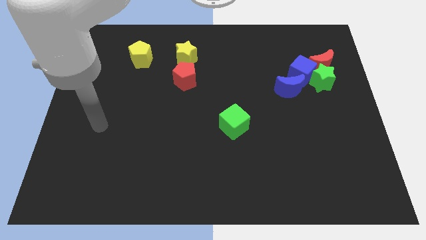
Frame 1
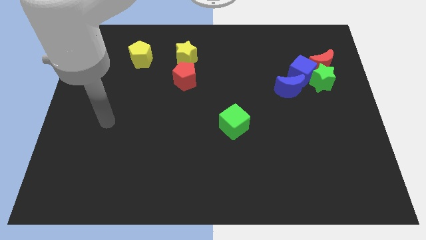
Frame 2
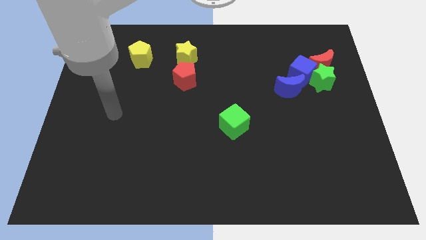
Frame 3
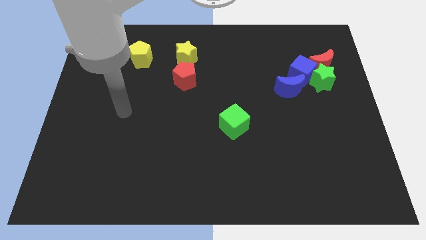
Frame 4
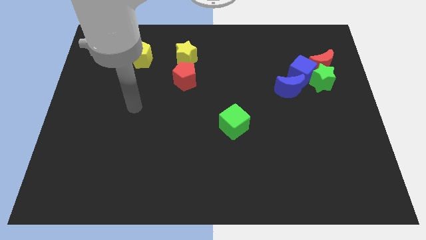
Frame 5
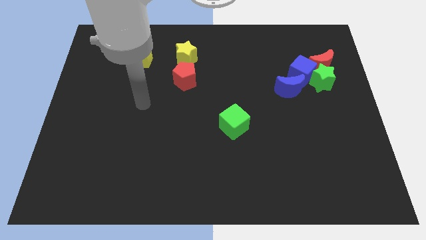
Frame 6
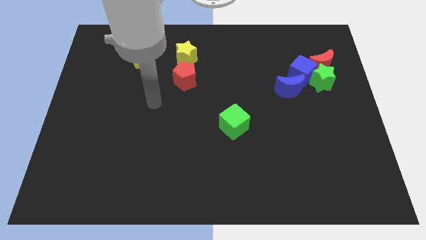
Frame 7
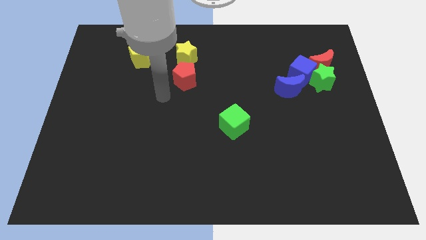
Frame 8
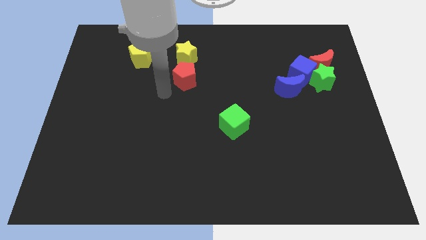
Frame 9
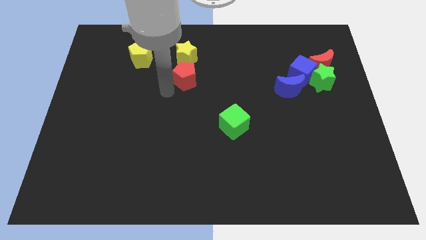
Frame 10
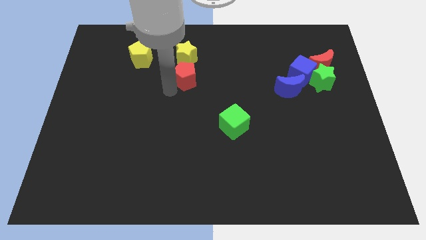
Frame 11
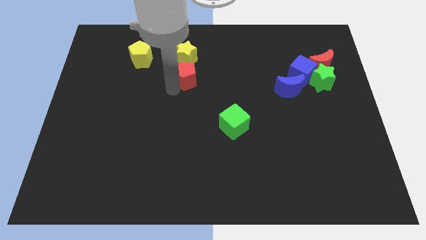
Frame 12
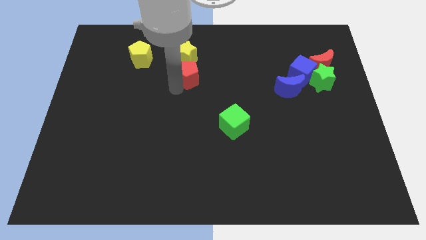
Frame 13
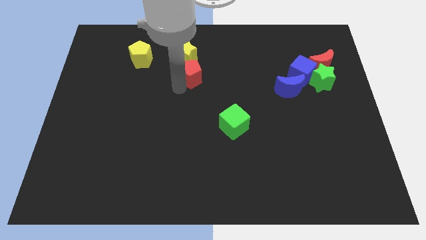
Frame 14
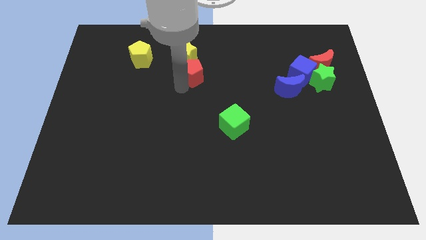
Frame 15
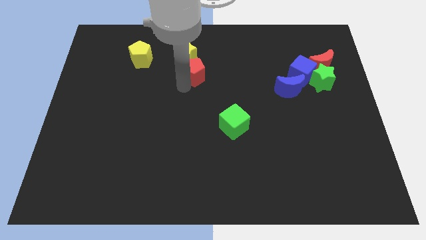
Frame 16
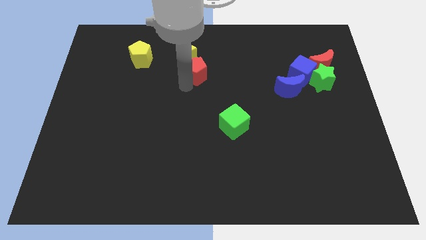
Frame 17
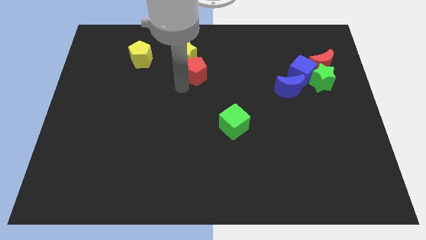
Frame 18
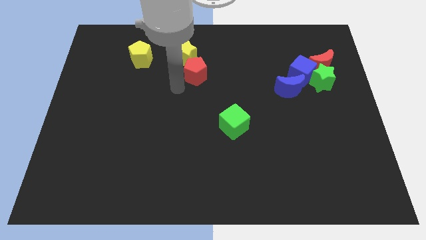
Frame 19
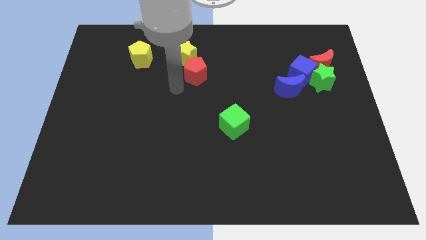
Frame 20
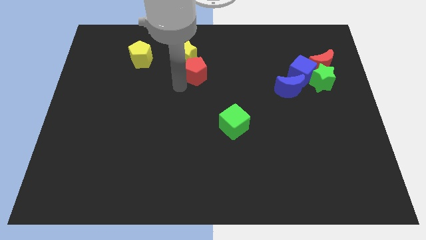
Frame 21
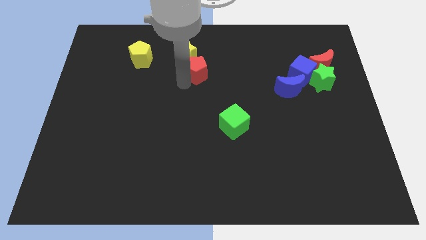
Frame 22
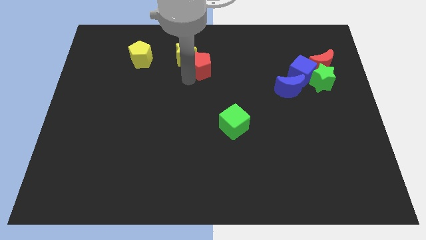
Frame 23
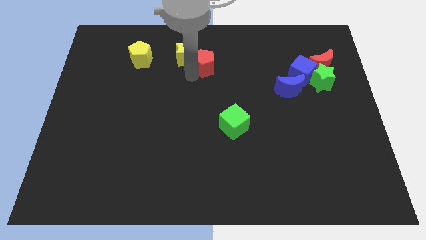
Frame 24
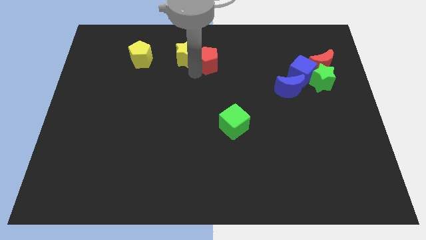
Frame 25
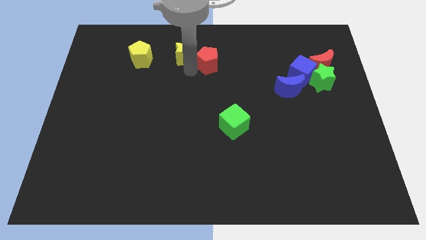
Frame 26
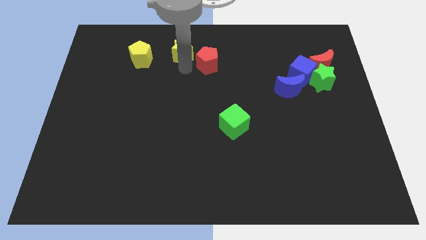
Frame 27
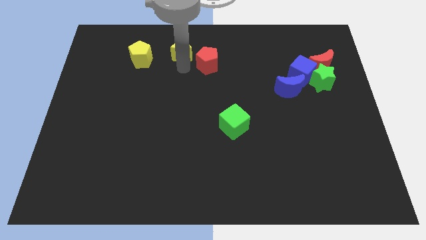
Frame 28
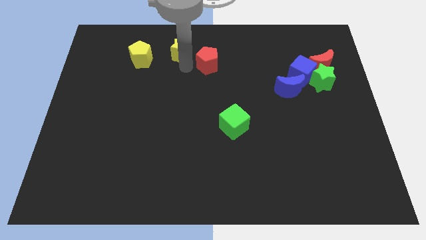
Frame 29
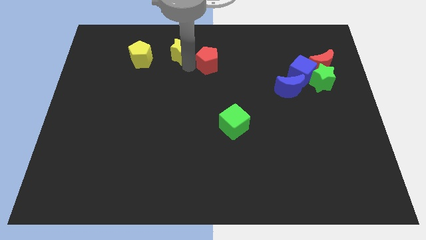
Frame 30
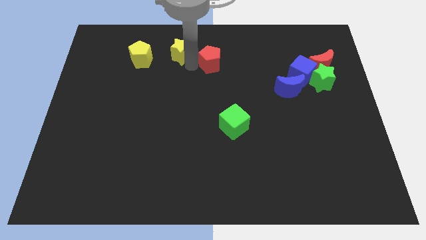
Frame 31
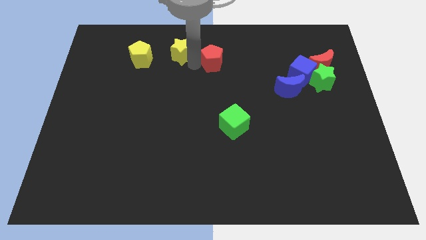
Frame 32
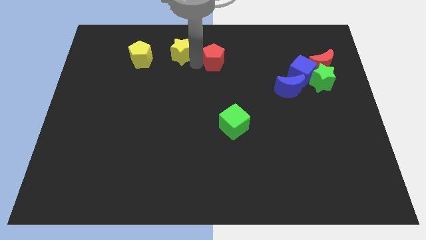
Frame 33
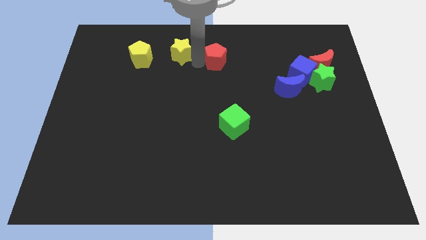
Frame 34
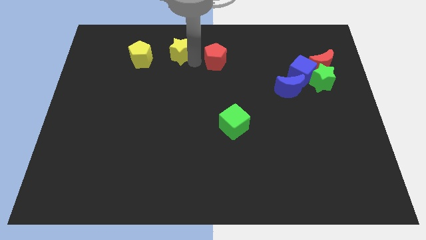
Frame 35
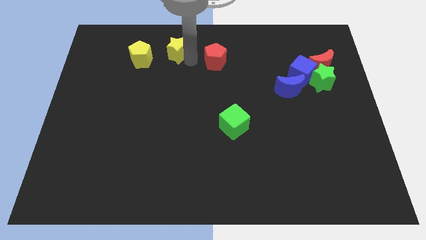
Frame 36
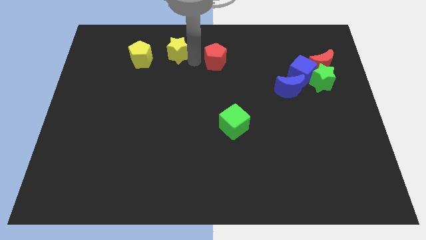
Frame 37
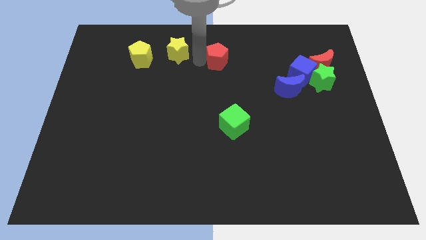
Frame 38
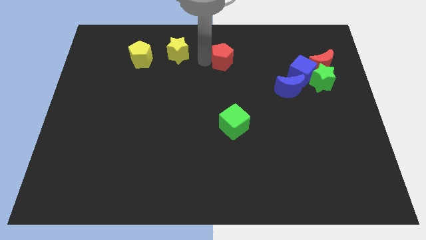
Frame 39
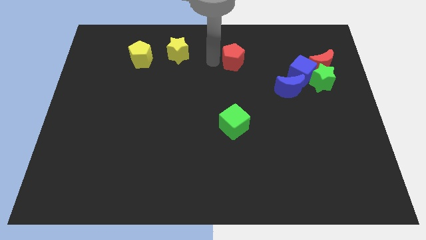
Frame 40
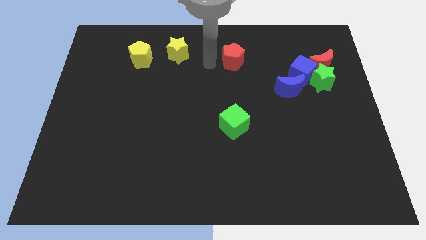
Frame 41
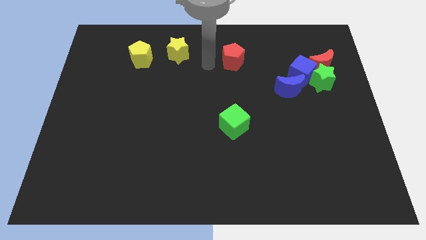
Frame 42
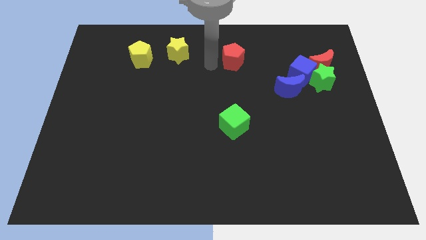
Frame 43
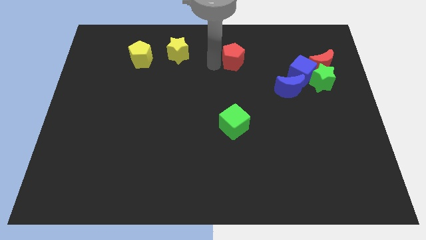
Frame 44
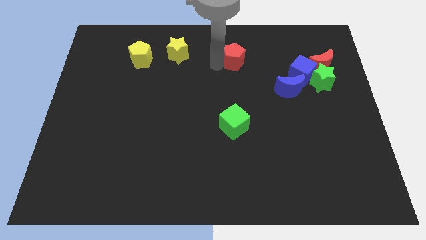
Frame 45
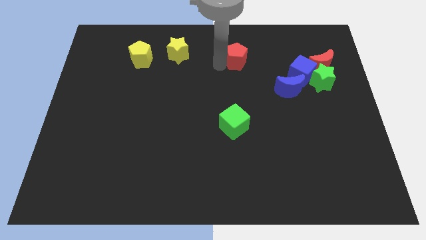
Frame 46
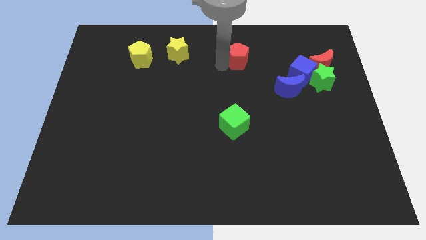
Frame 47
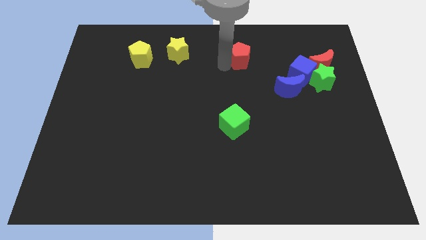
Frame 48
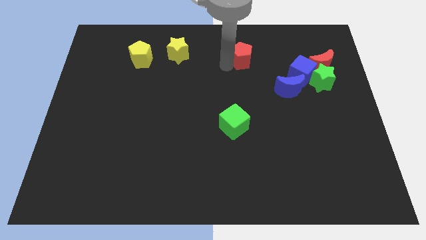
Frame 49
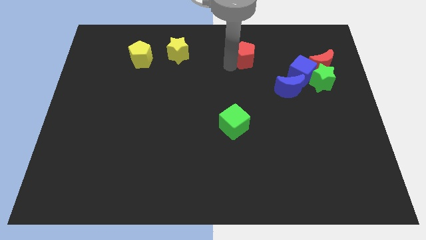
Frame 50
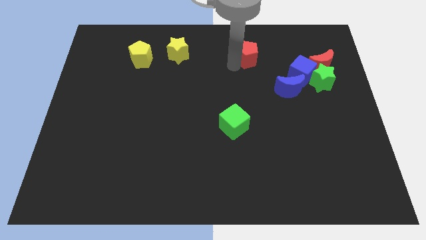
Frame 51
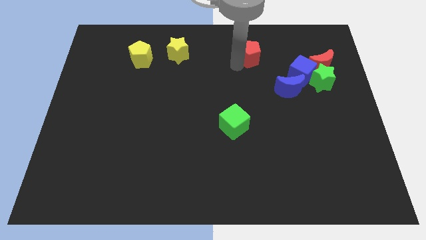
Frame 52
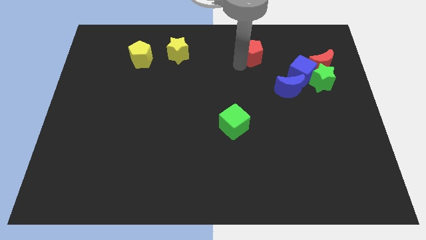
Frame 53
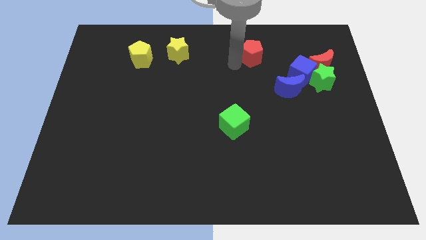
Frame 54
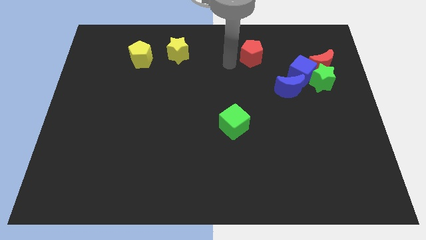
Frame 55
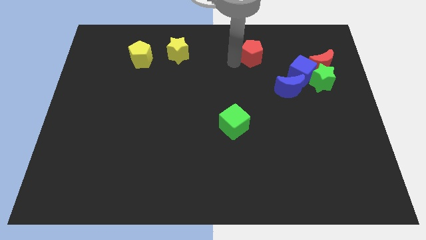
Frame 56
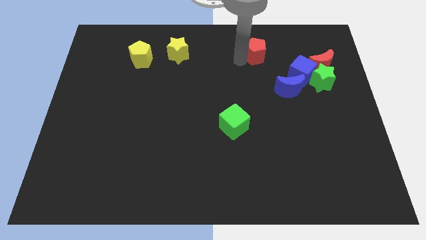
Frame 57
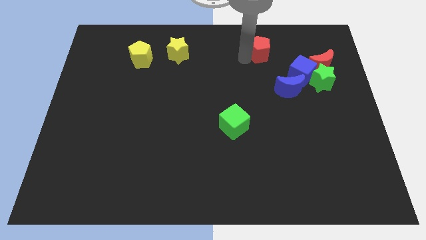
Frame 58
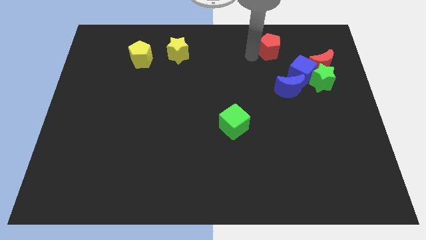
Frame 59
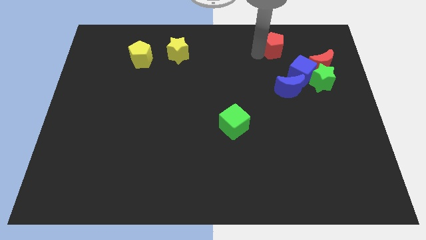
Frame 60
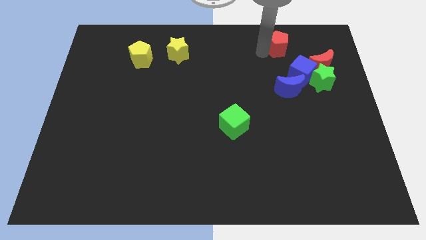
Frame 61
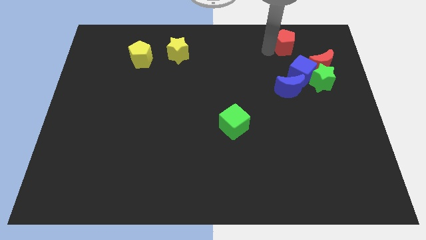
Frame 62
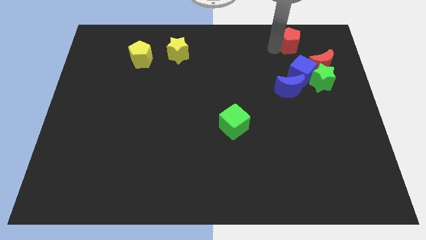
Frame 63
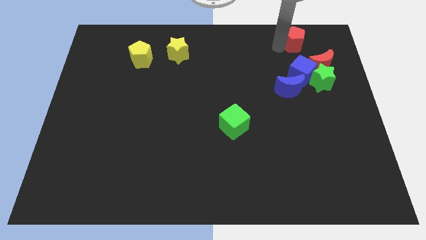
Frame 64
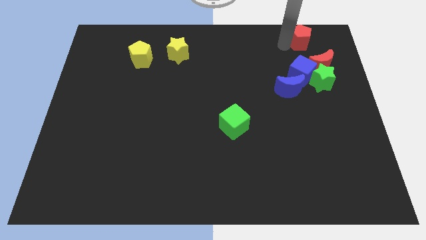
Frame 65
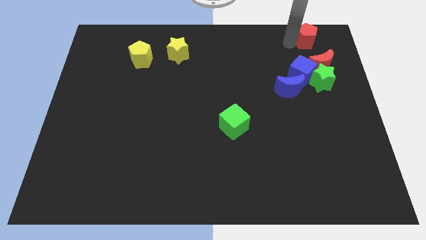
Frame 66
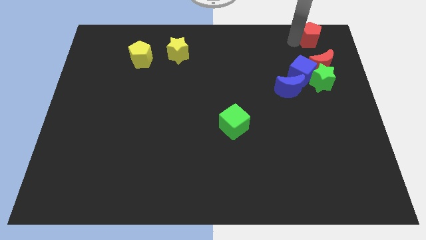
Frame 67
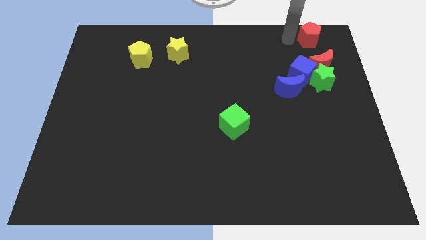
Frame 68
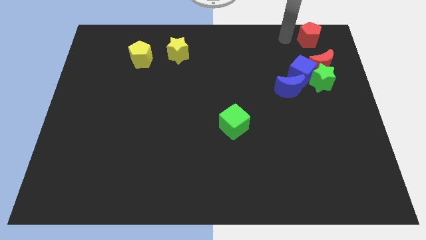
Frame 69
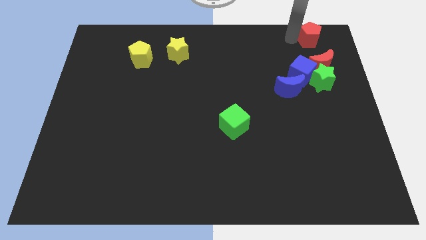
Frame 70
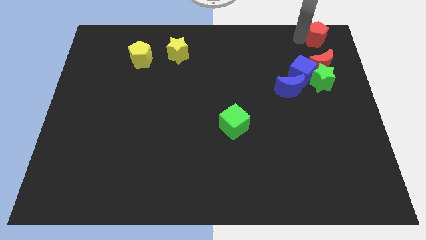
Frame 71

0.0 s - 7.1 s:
move the red pentagon to the upper right corner
